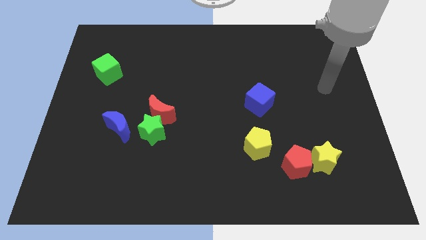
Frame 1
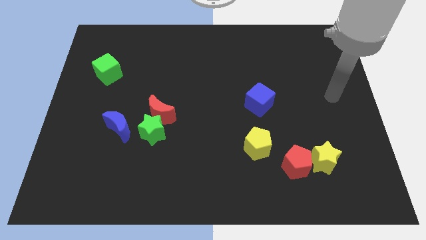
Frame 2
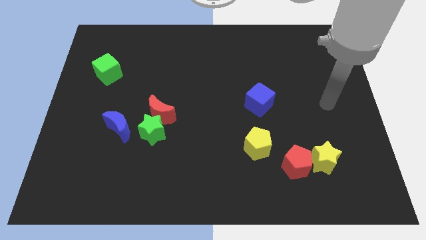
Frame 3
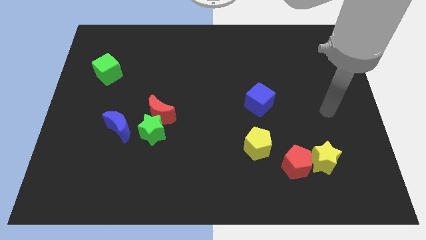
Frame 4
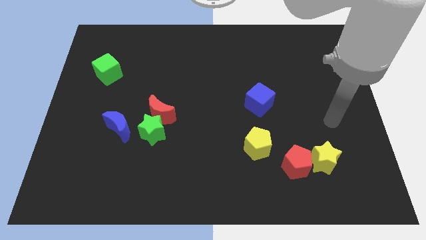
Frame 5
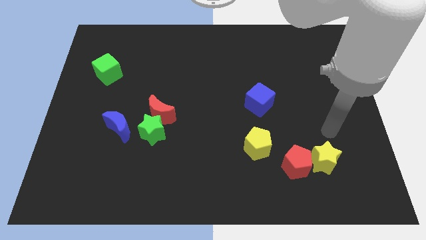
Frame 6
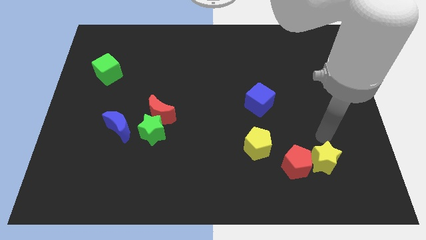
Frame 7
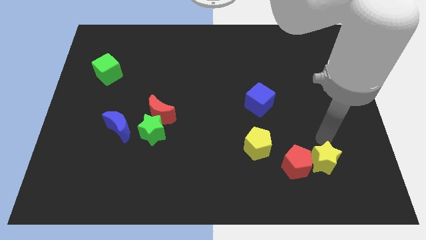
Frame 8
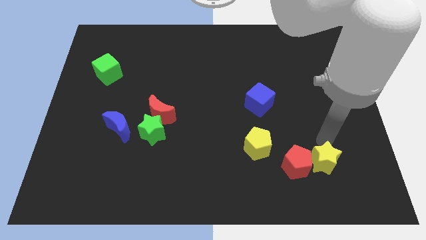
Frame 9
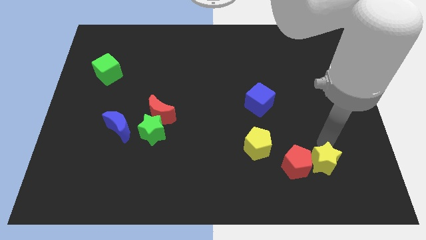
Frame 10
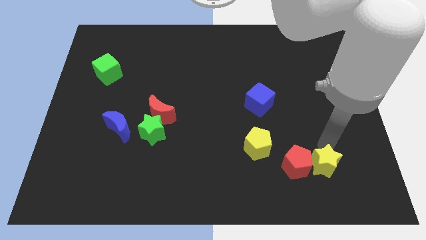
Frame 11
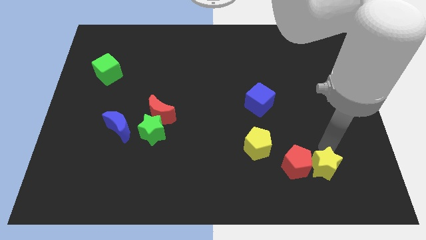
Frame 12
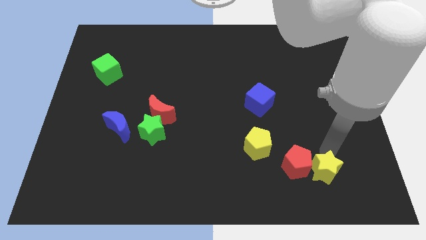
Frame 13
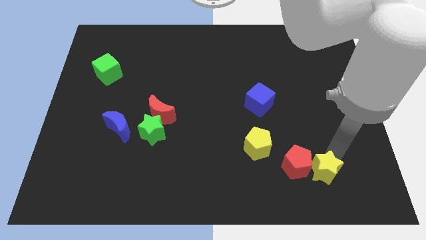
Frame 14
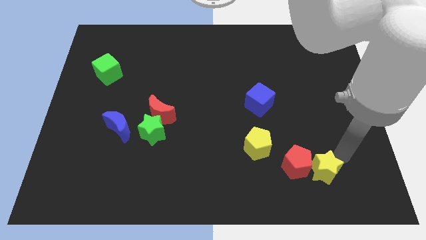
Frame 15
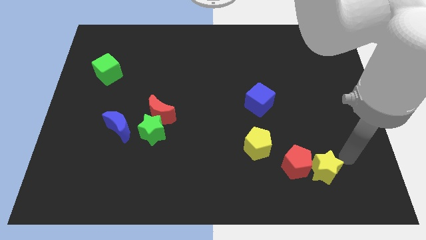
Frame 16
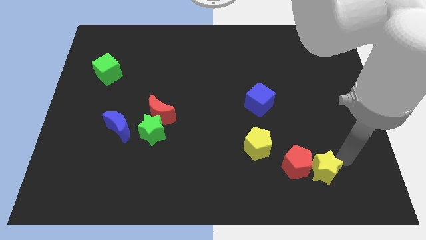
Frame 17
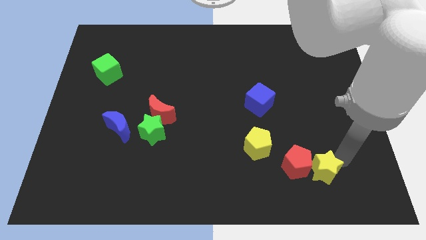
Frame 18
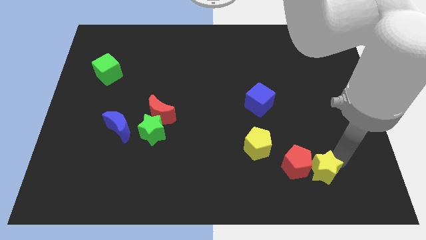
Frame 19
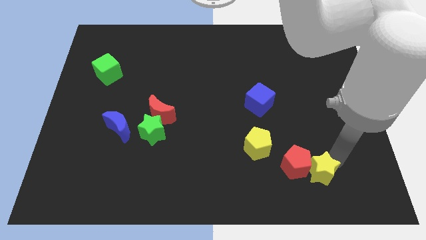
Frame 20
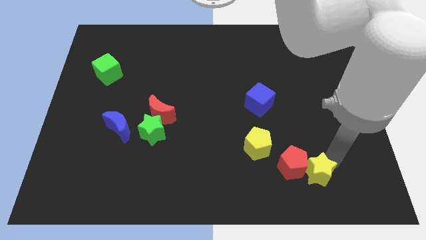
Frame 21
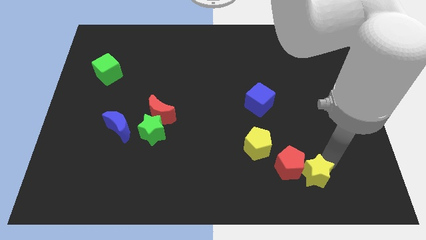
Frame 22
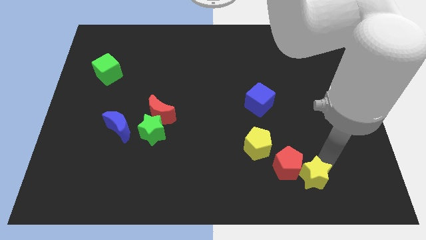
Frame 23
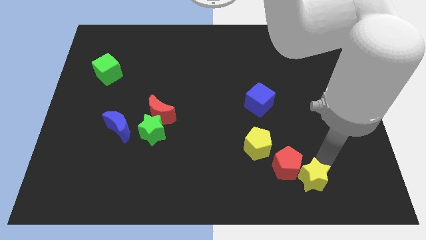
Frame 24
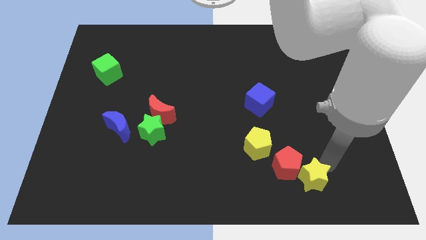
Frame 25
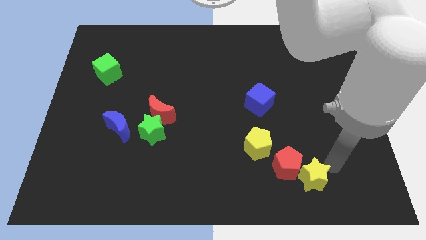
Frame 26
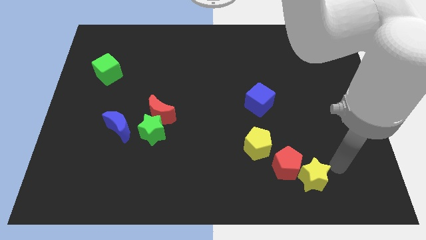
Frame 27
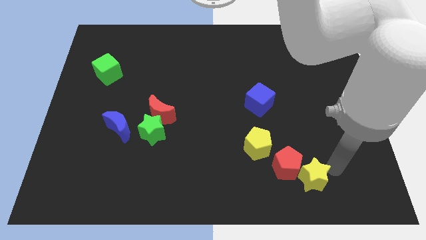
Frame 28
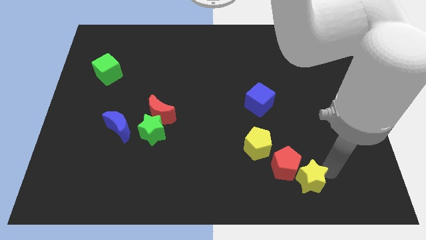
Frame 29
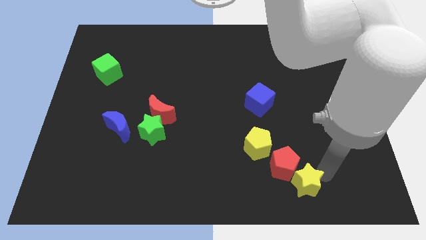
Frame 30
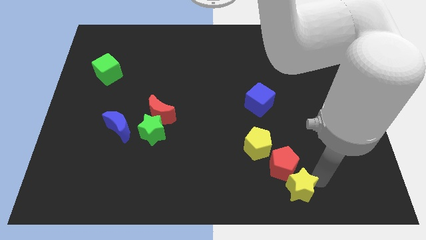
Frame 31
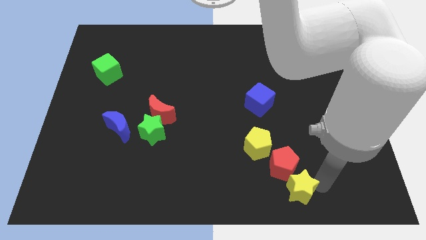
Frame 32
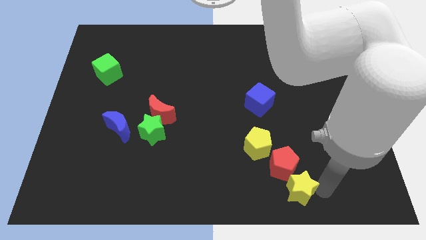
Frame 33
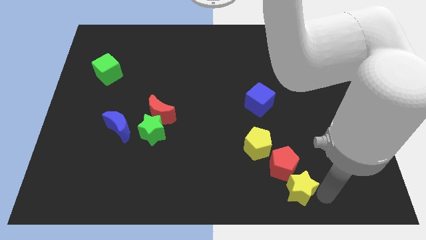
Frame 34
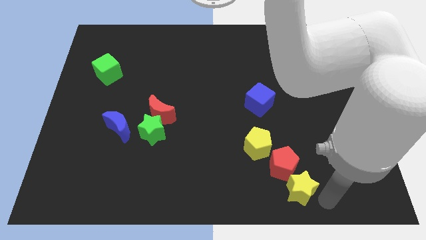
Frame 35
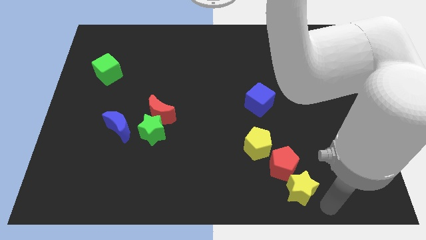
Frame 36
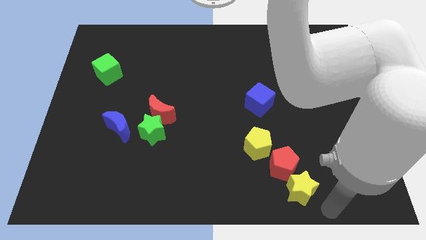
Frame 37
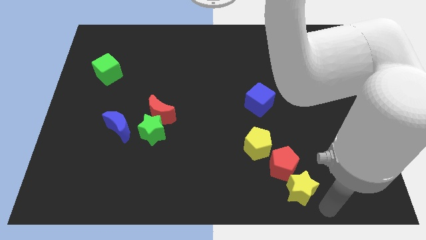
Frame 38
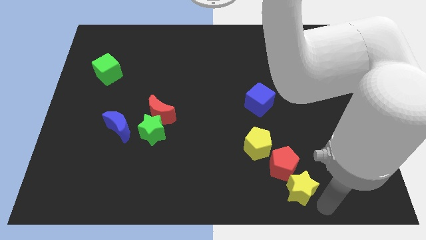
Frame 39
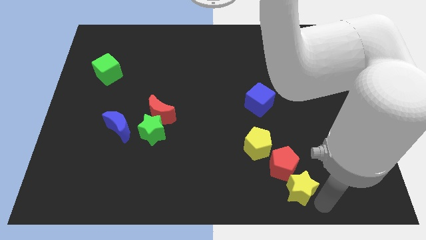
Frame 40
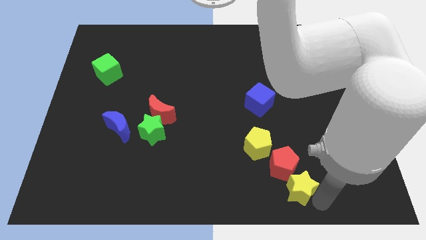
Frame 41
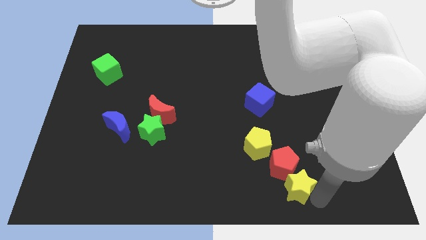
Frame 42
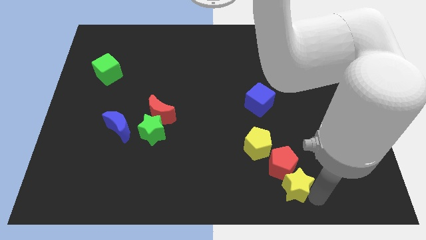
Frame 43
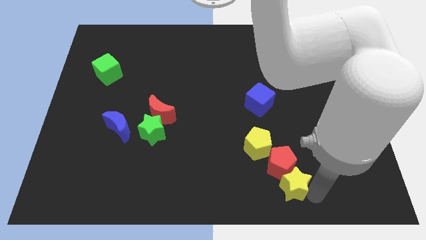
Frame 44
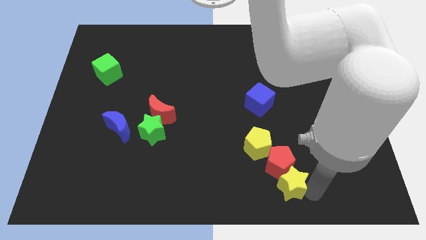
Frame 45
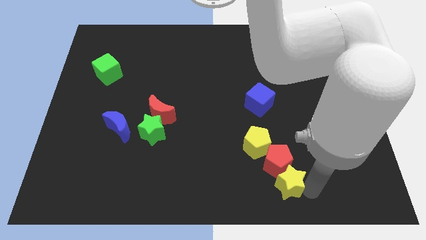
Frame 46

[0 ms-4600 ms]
move the yellow star somewhat to the left

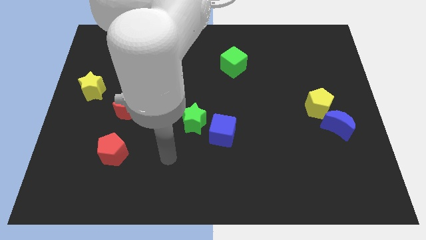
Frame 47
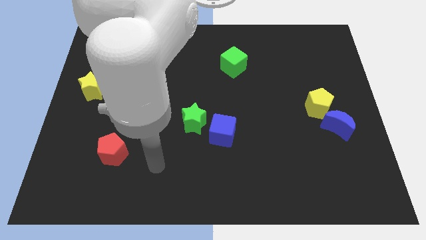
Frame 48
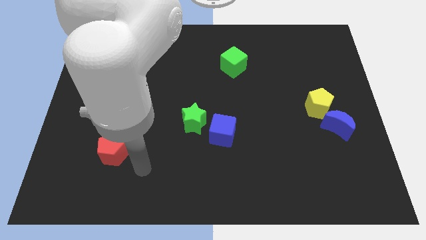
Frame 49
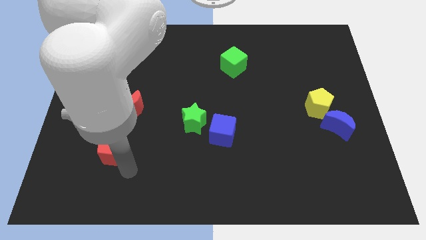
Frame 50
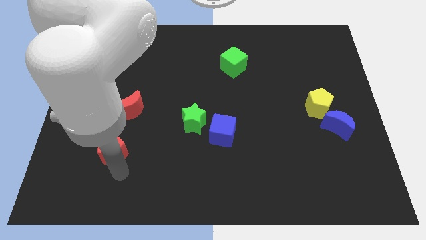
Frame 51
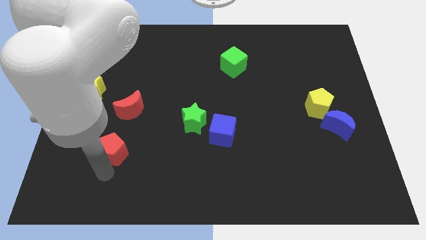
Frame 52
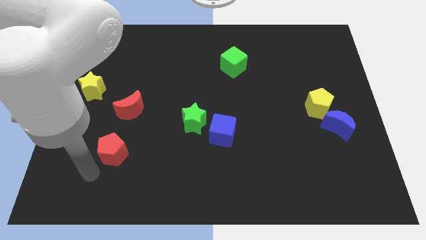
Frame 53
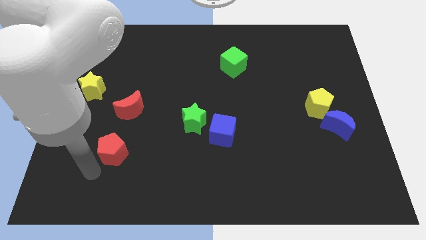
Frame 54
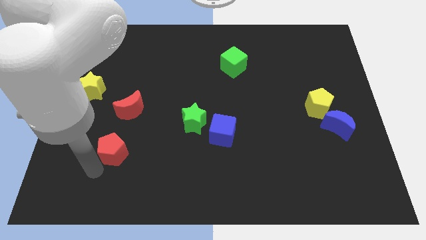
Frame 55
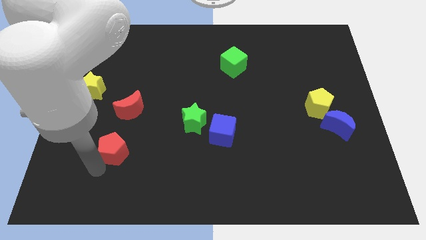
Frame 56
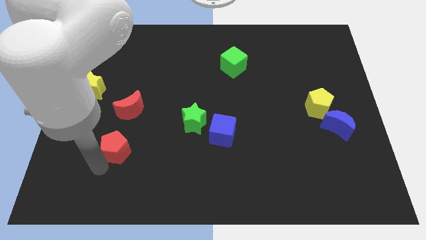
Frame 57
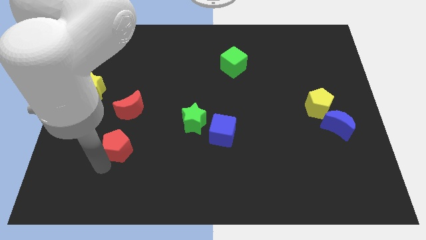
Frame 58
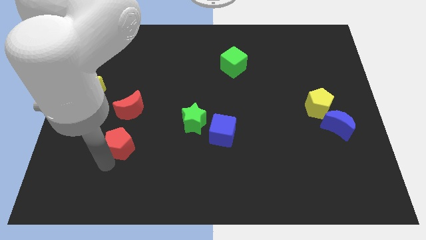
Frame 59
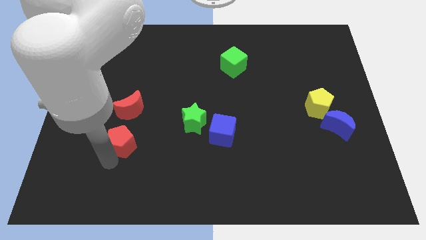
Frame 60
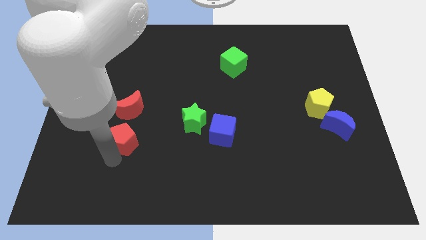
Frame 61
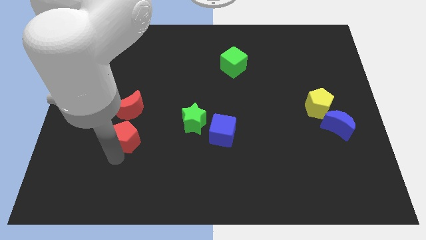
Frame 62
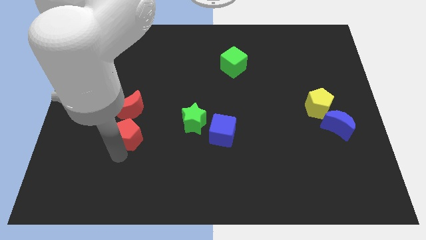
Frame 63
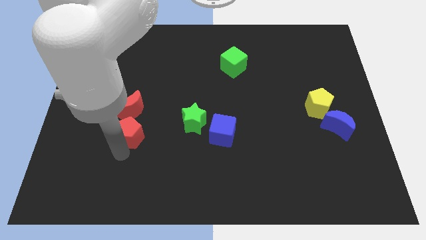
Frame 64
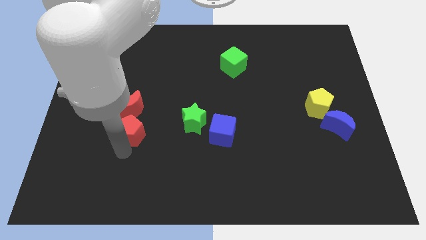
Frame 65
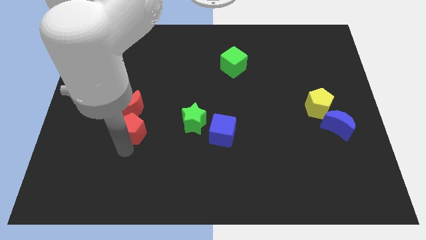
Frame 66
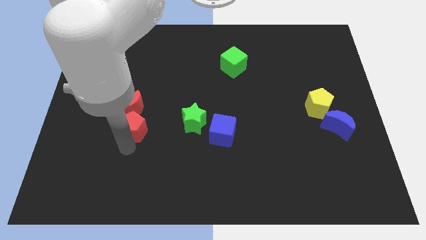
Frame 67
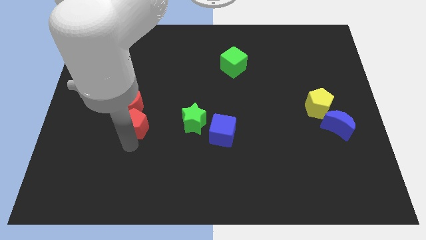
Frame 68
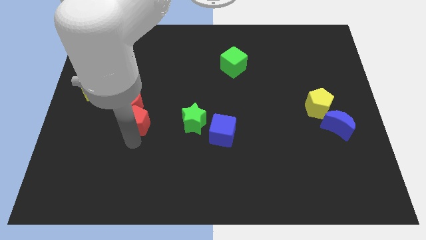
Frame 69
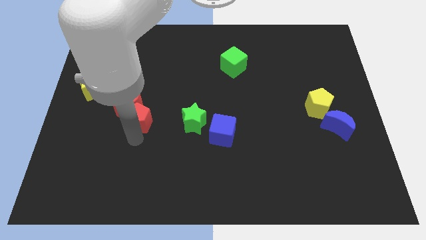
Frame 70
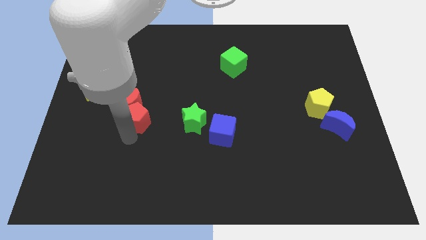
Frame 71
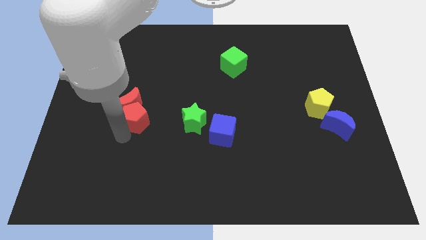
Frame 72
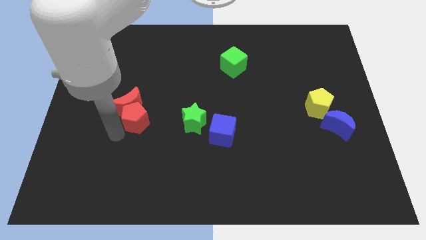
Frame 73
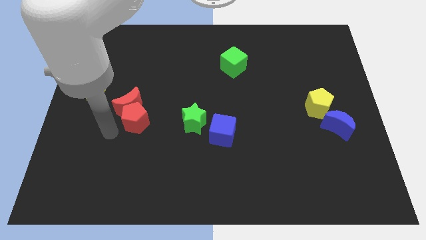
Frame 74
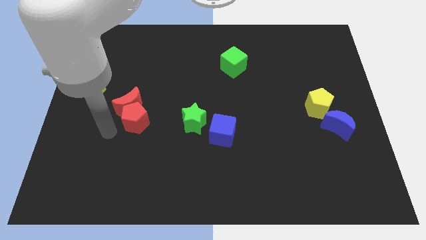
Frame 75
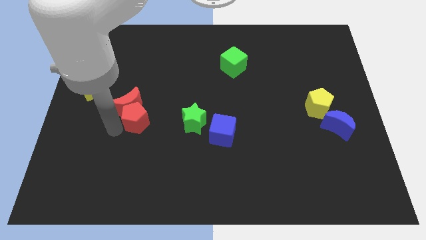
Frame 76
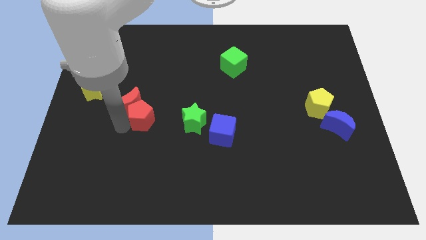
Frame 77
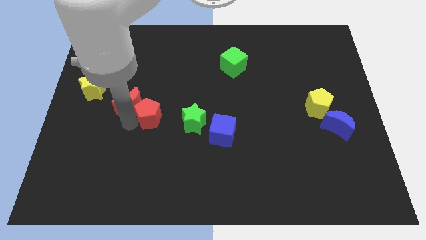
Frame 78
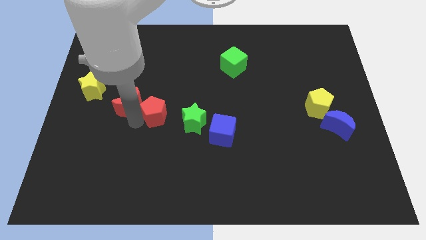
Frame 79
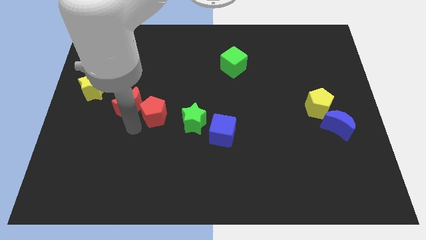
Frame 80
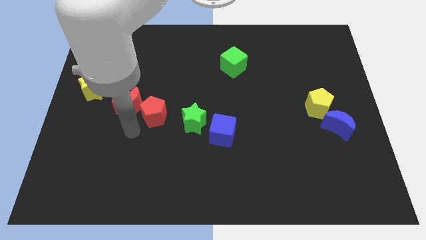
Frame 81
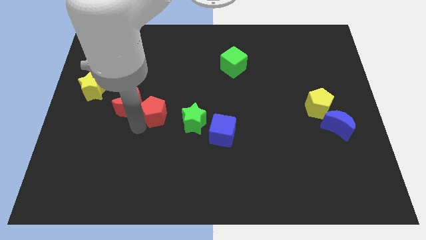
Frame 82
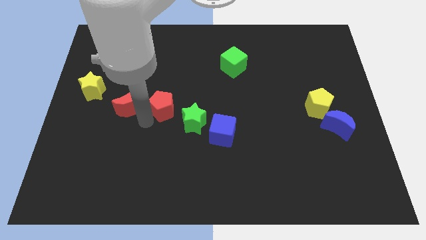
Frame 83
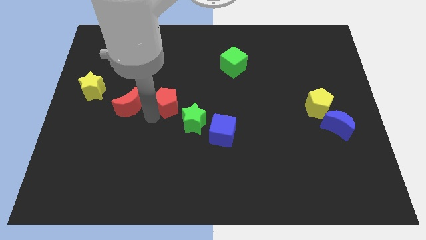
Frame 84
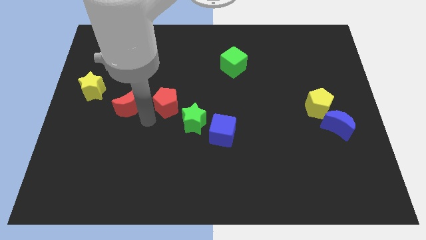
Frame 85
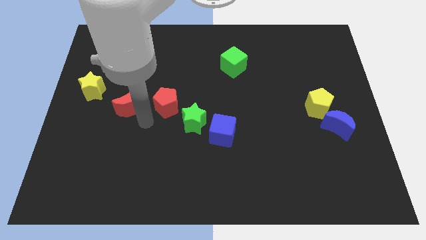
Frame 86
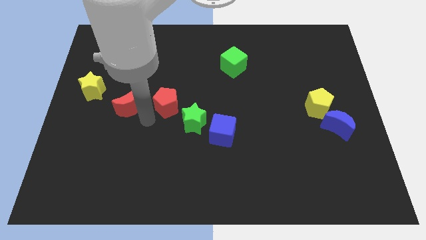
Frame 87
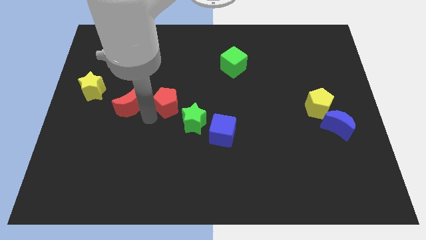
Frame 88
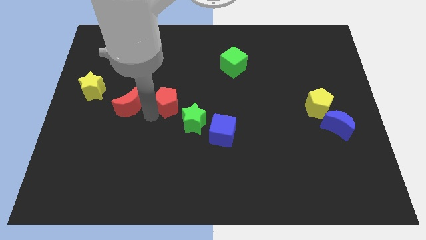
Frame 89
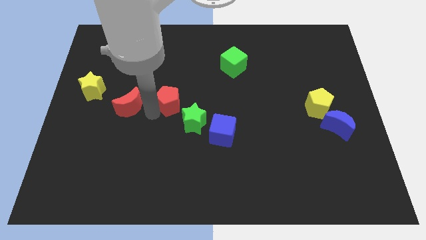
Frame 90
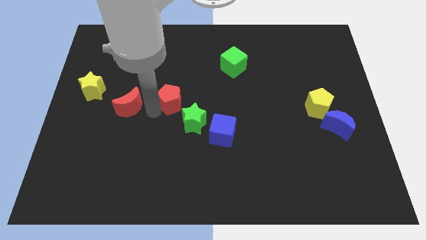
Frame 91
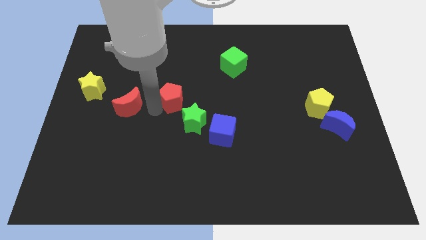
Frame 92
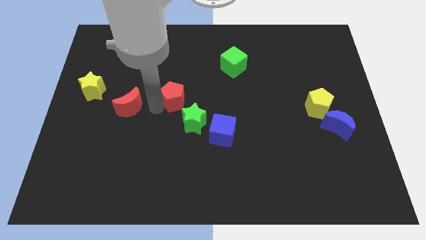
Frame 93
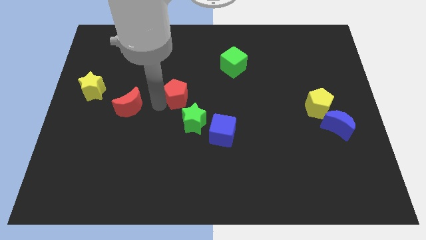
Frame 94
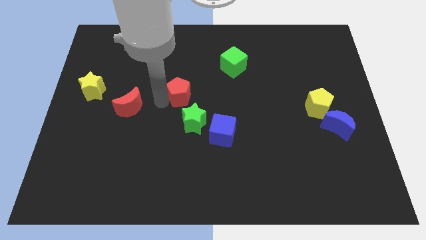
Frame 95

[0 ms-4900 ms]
move the red pentagon upwards and right
